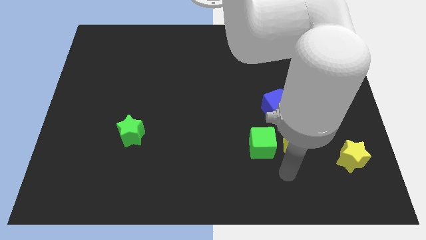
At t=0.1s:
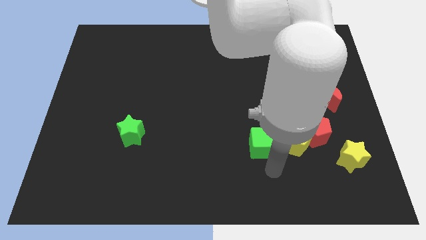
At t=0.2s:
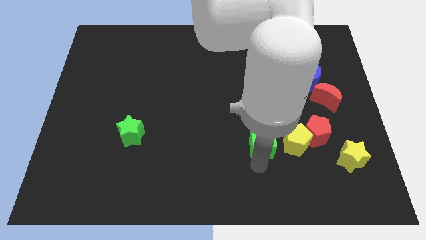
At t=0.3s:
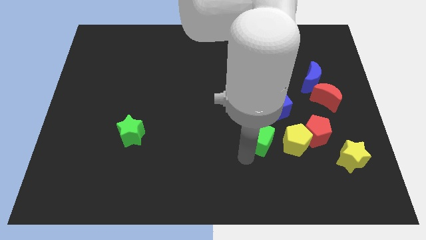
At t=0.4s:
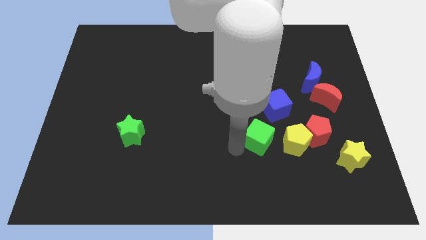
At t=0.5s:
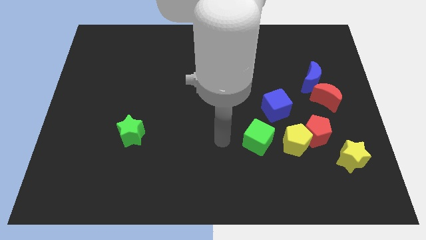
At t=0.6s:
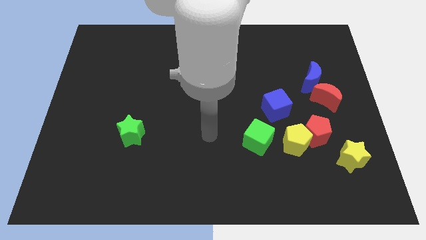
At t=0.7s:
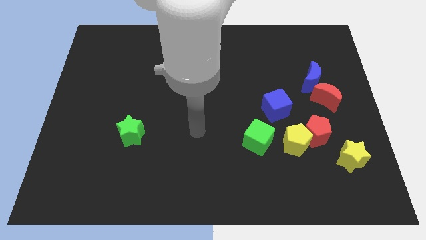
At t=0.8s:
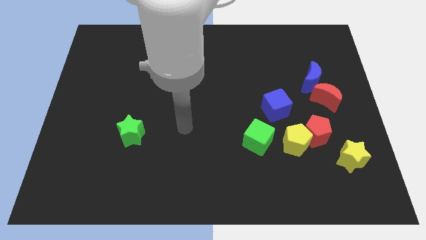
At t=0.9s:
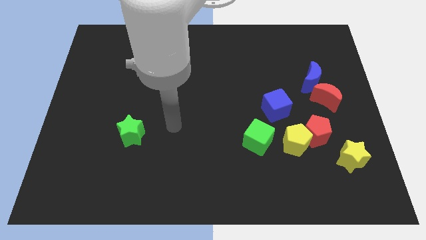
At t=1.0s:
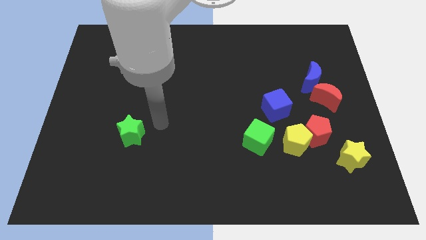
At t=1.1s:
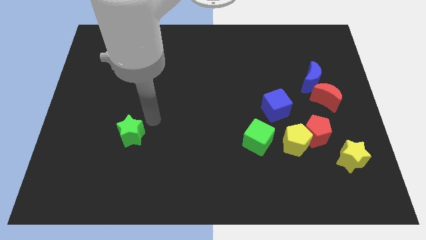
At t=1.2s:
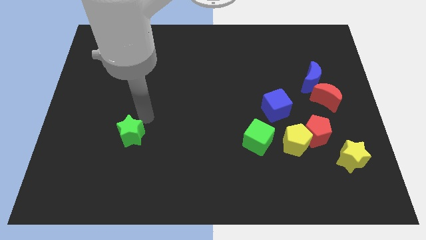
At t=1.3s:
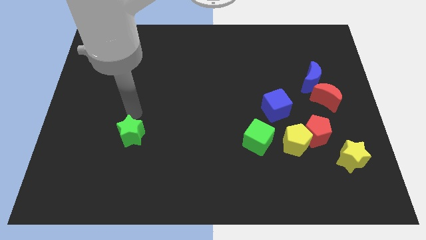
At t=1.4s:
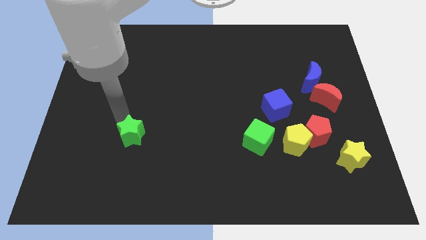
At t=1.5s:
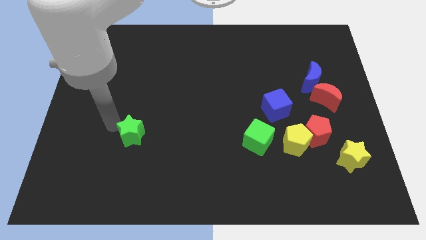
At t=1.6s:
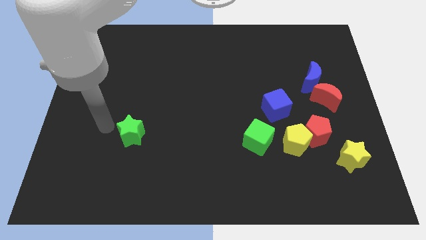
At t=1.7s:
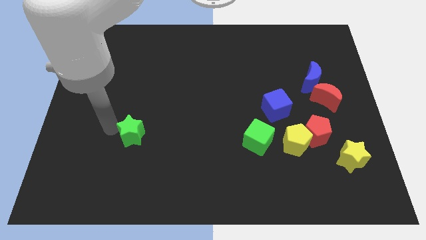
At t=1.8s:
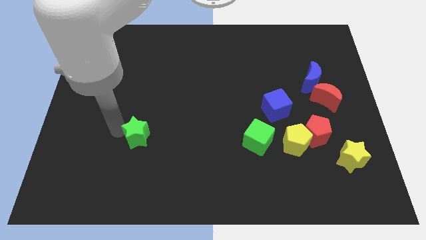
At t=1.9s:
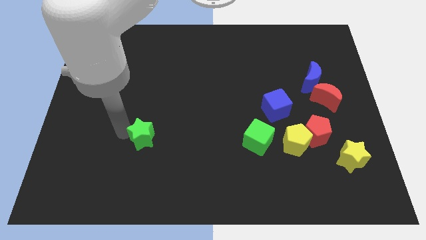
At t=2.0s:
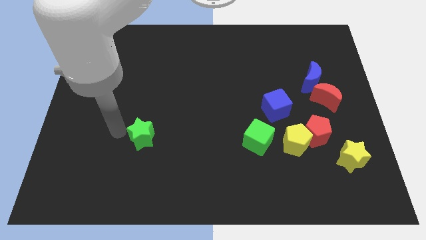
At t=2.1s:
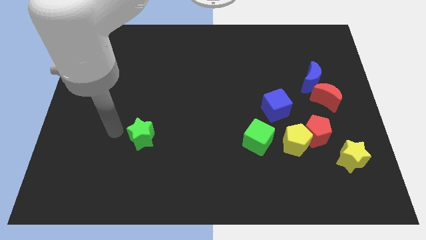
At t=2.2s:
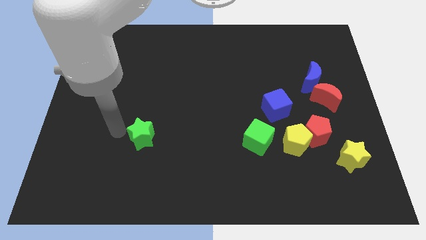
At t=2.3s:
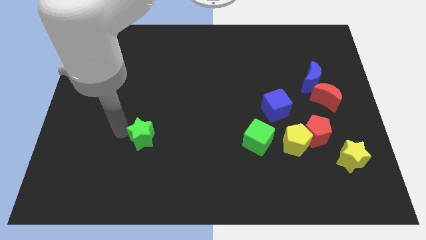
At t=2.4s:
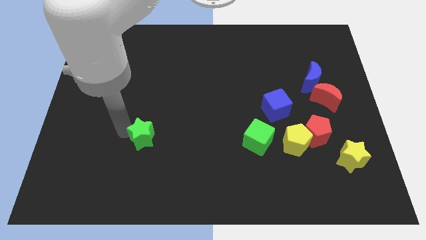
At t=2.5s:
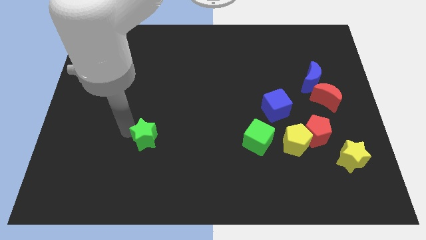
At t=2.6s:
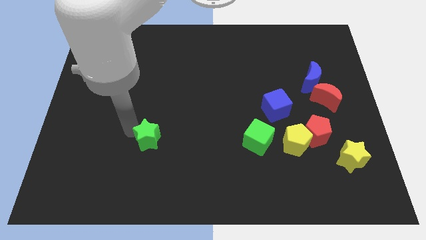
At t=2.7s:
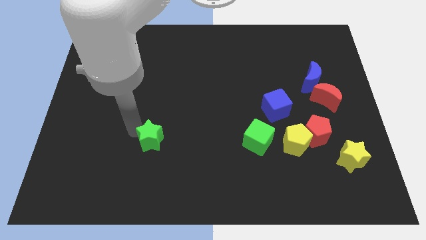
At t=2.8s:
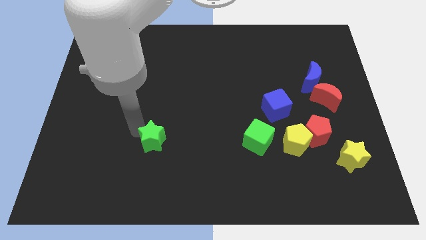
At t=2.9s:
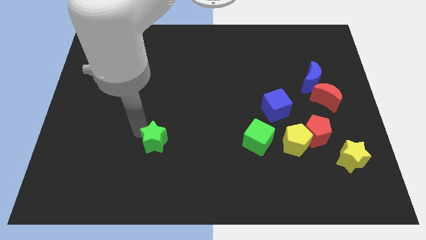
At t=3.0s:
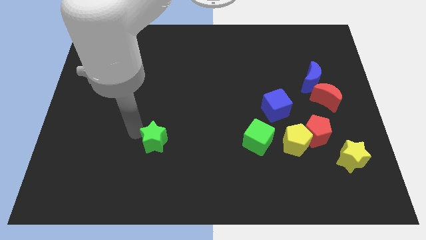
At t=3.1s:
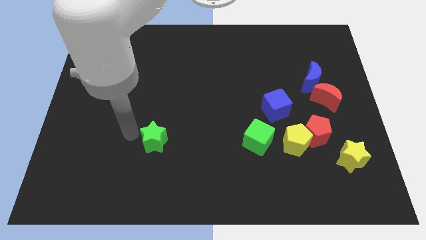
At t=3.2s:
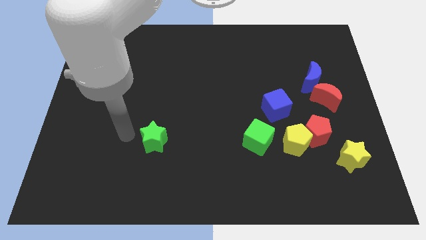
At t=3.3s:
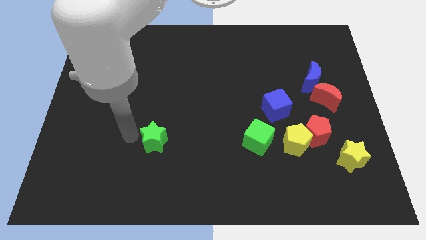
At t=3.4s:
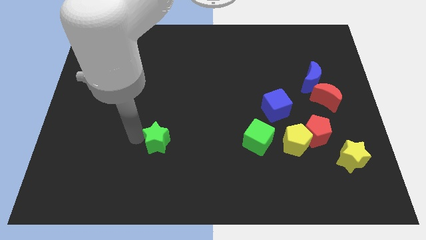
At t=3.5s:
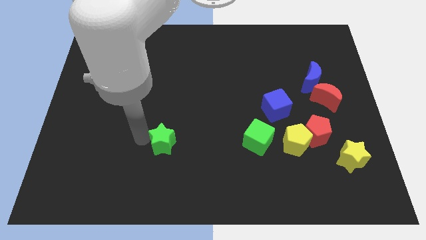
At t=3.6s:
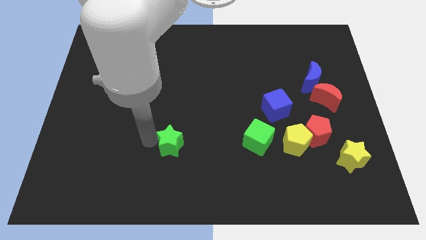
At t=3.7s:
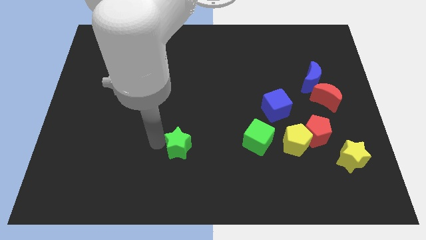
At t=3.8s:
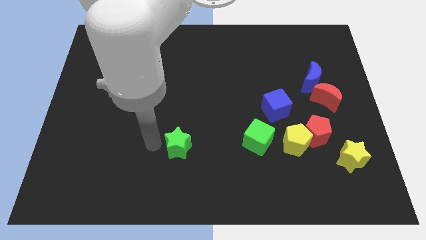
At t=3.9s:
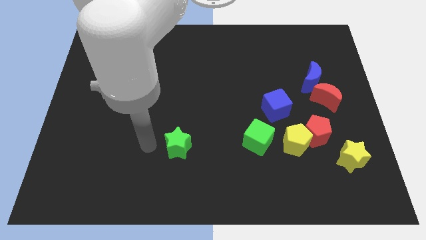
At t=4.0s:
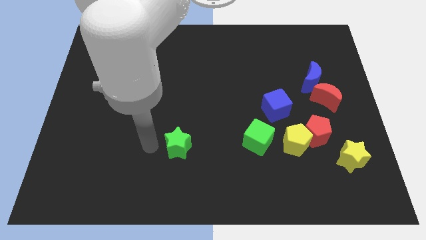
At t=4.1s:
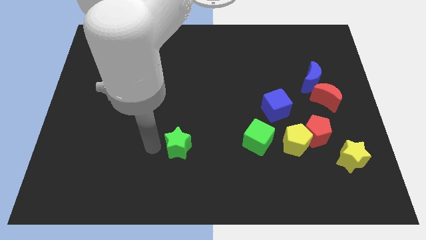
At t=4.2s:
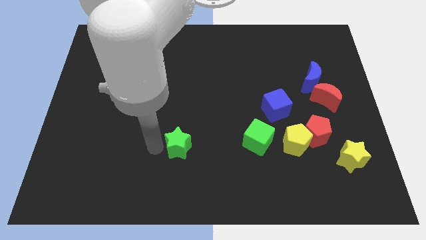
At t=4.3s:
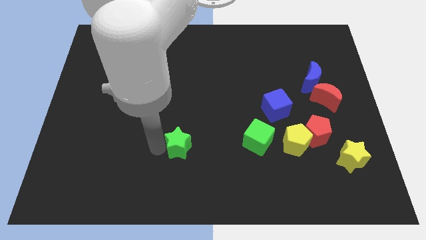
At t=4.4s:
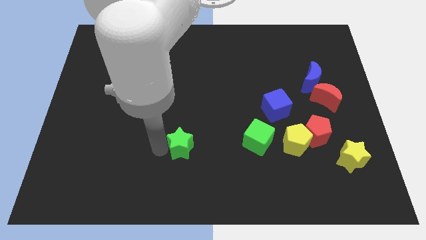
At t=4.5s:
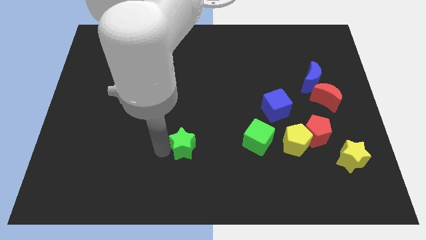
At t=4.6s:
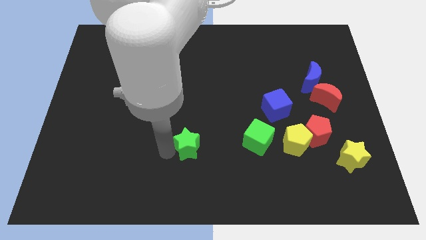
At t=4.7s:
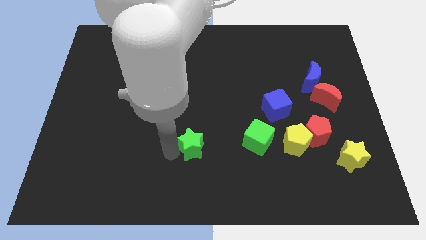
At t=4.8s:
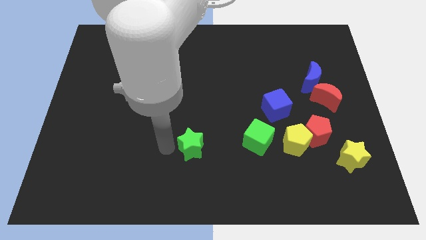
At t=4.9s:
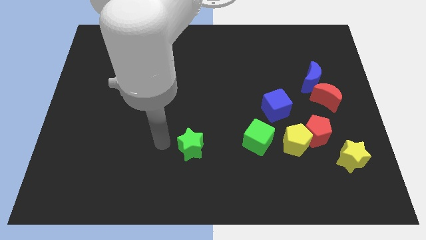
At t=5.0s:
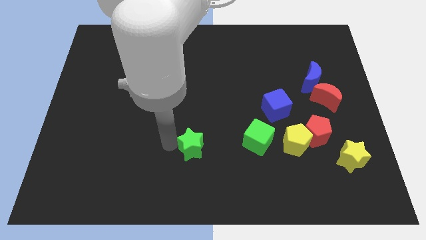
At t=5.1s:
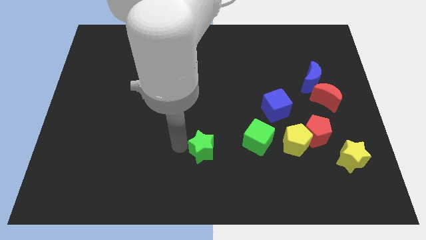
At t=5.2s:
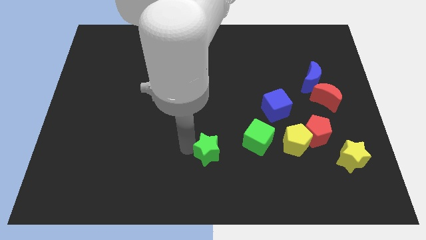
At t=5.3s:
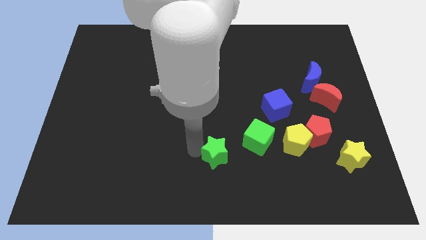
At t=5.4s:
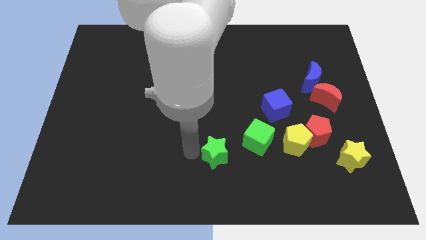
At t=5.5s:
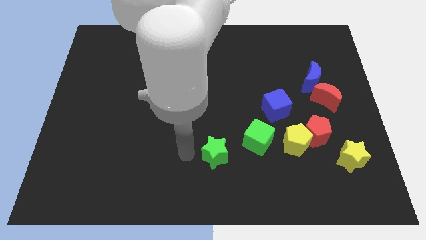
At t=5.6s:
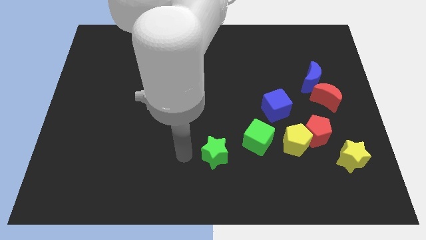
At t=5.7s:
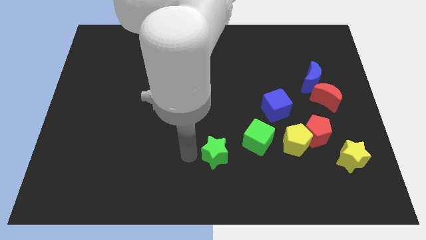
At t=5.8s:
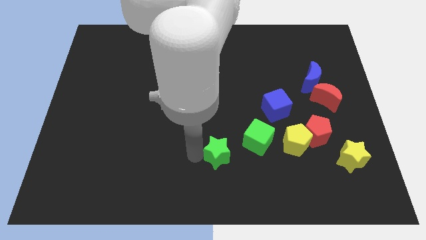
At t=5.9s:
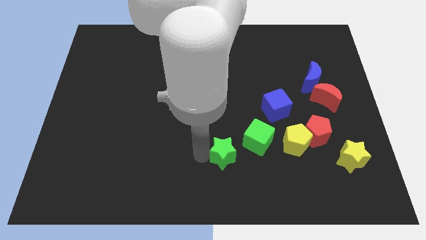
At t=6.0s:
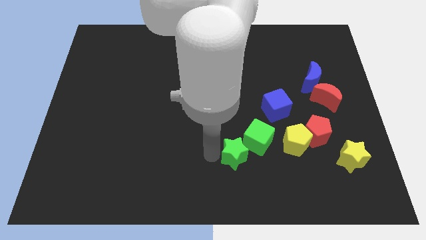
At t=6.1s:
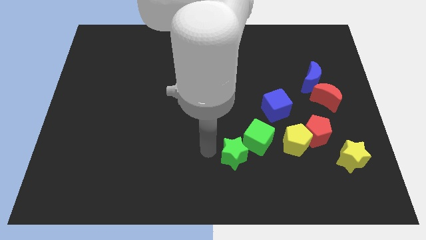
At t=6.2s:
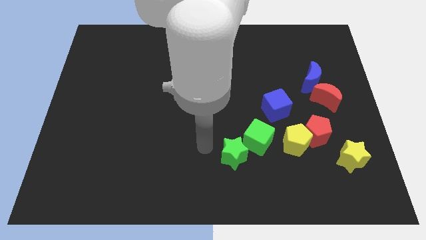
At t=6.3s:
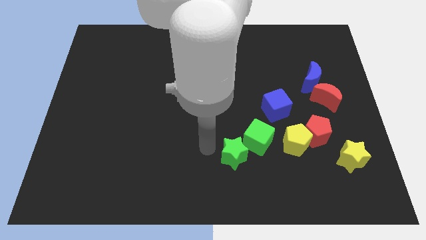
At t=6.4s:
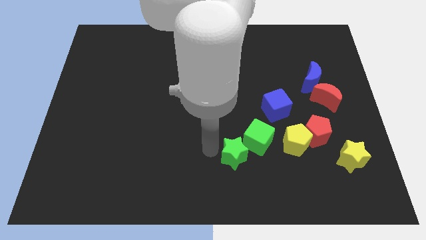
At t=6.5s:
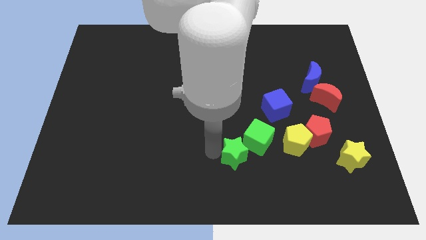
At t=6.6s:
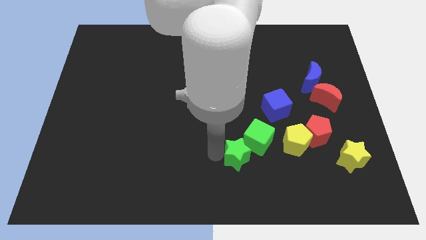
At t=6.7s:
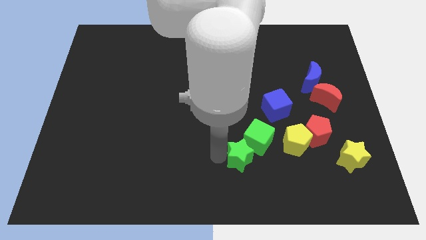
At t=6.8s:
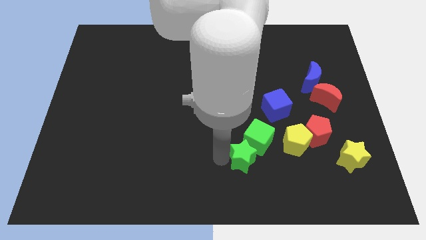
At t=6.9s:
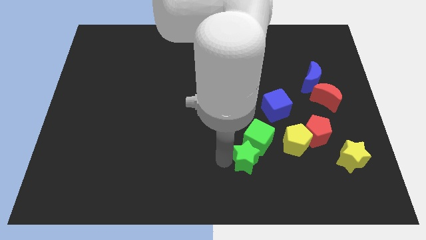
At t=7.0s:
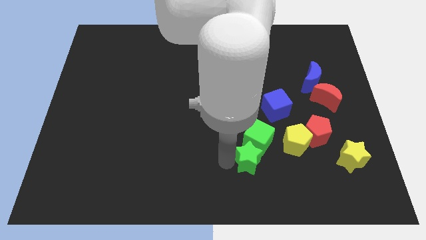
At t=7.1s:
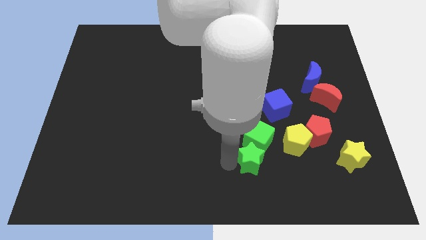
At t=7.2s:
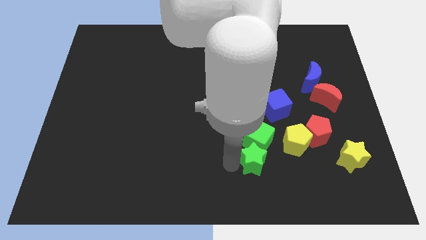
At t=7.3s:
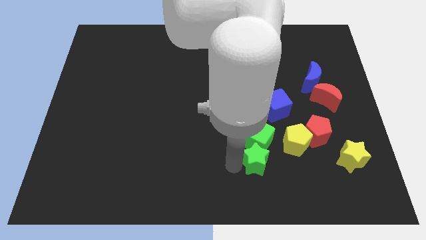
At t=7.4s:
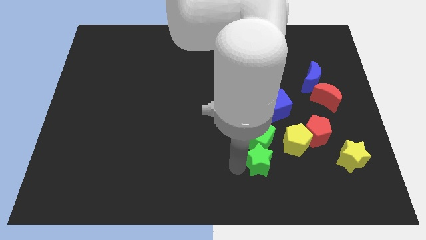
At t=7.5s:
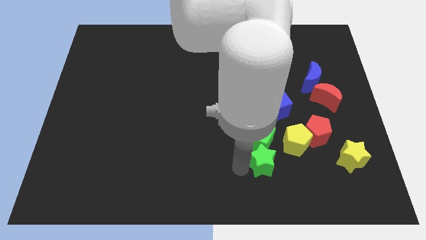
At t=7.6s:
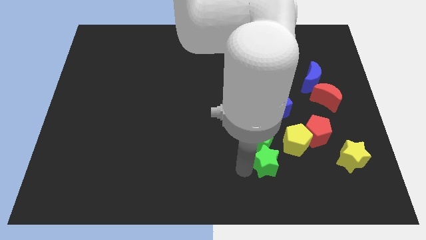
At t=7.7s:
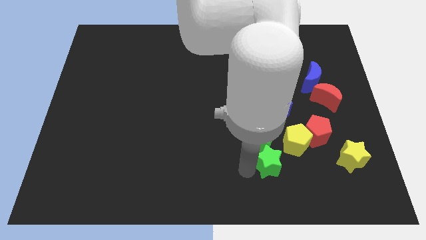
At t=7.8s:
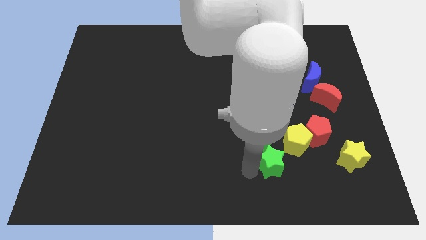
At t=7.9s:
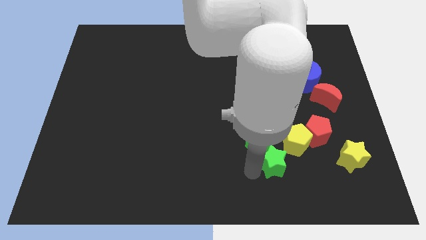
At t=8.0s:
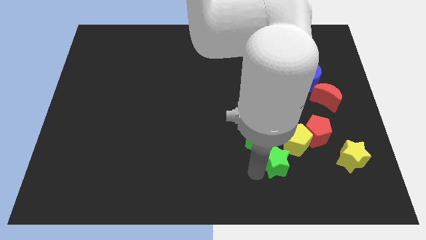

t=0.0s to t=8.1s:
push the green star left of the yellow star
